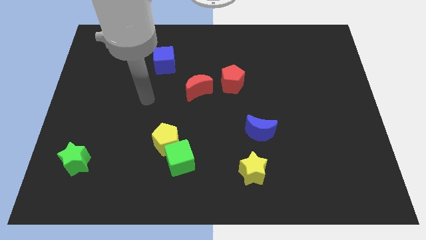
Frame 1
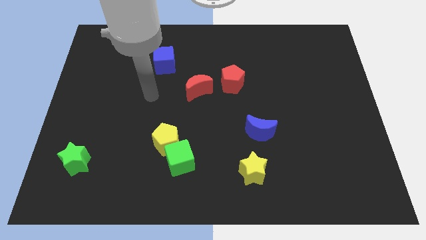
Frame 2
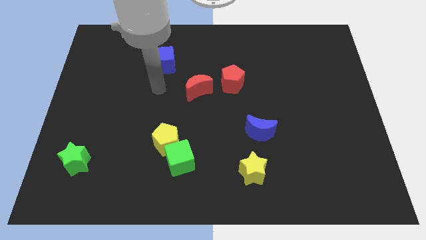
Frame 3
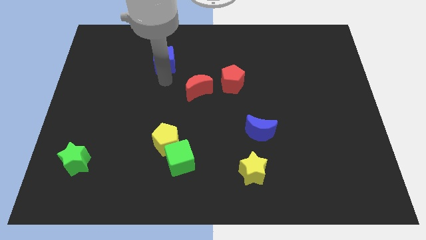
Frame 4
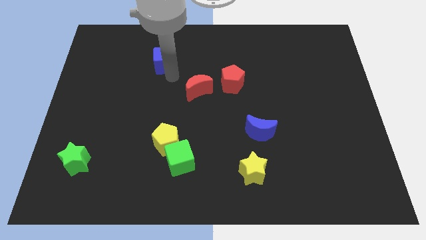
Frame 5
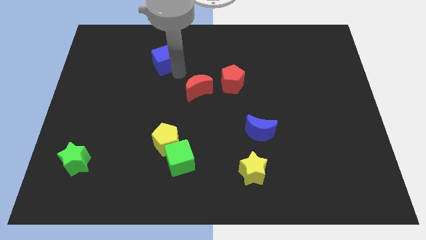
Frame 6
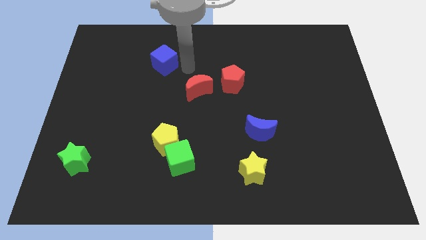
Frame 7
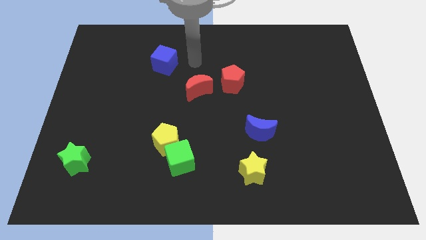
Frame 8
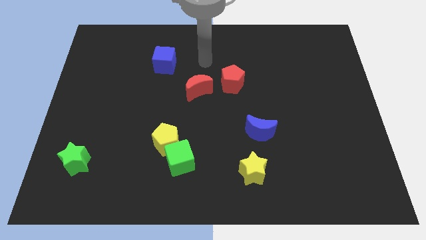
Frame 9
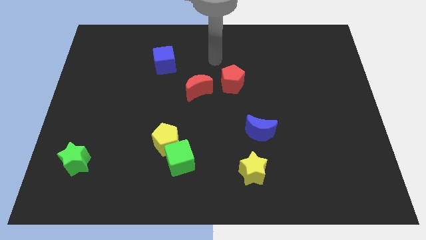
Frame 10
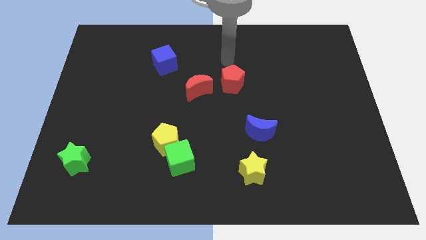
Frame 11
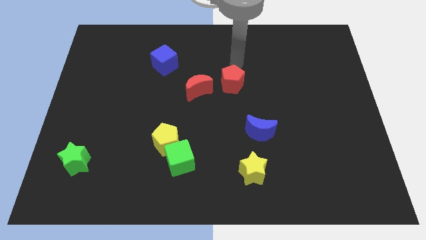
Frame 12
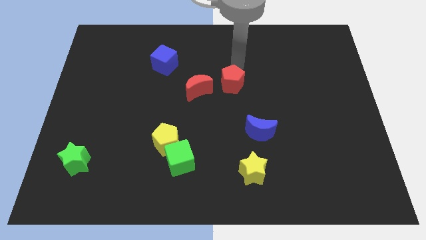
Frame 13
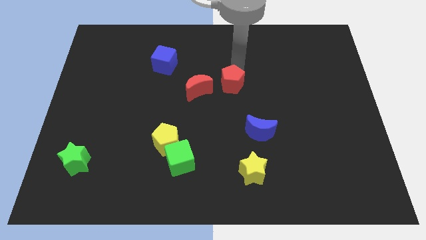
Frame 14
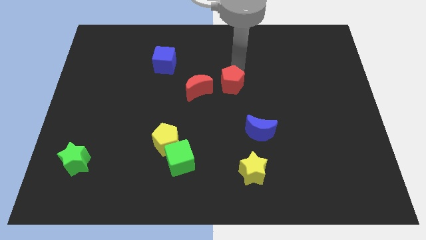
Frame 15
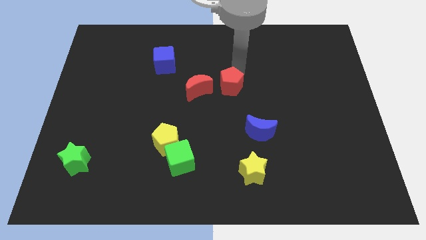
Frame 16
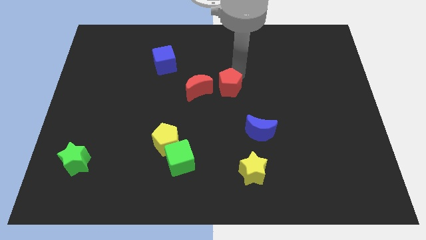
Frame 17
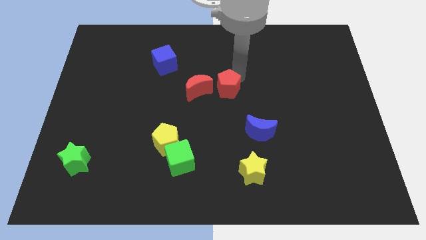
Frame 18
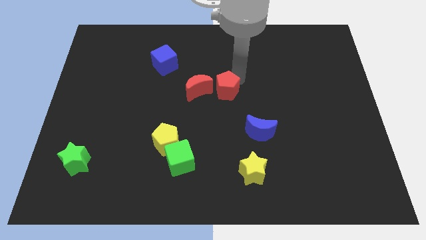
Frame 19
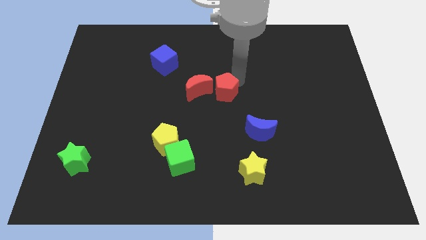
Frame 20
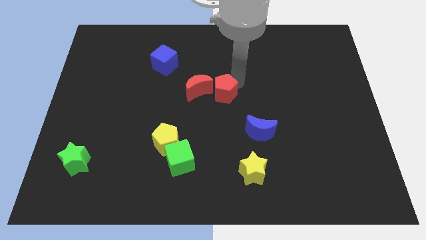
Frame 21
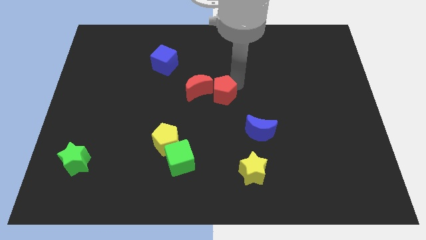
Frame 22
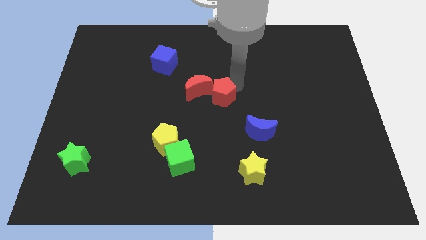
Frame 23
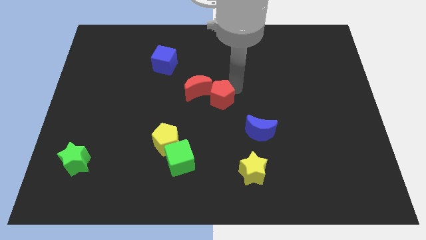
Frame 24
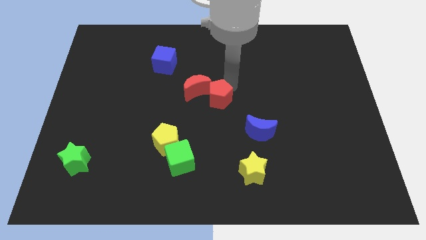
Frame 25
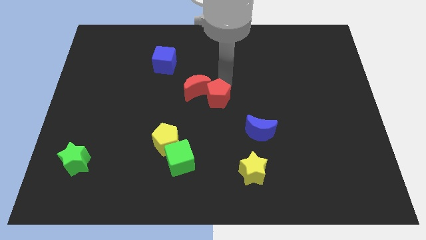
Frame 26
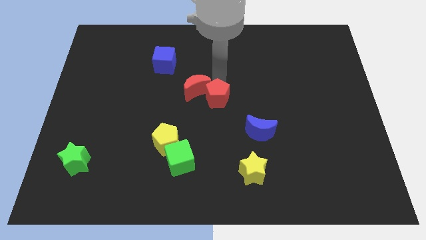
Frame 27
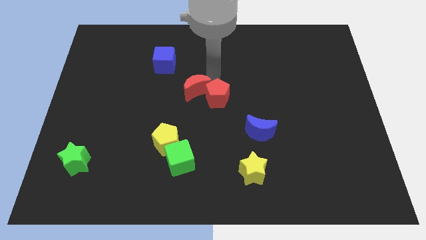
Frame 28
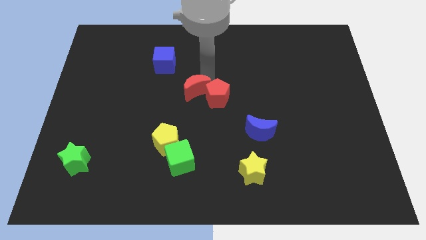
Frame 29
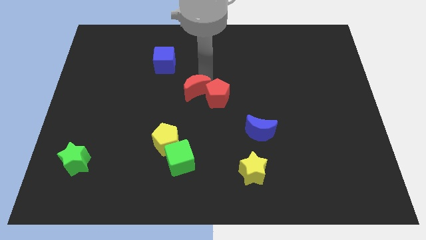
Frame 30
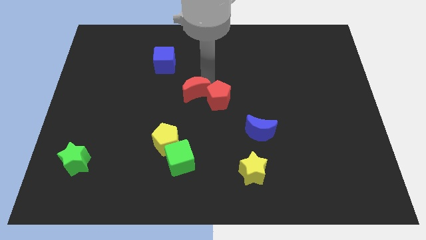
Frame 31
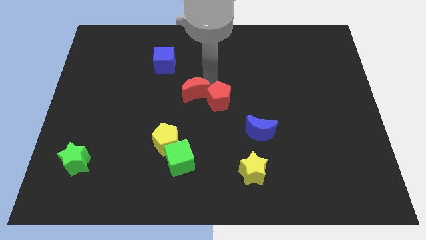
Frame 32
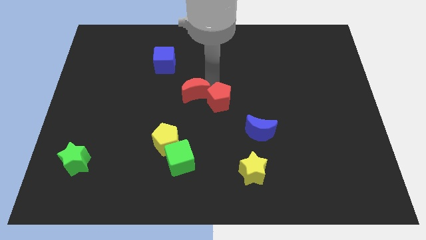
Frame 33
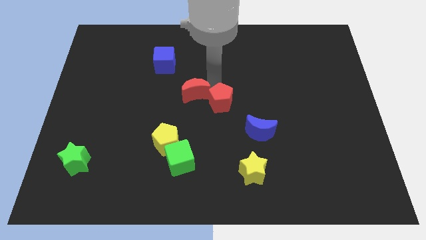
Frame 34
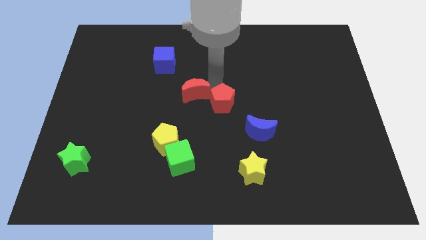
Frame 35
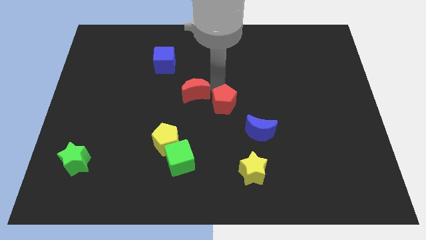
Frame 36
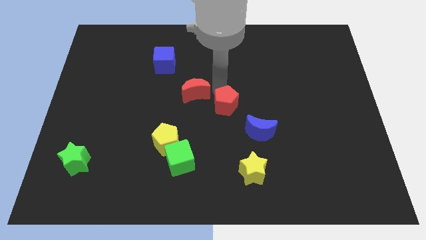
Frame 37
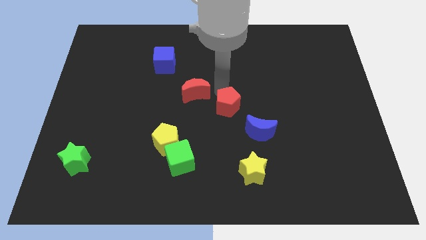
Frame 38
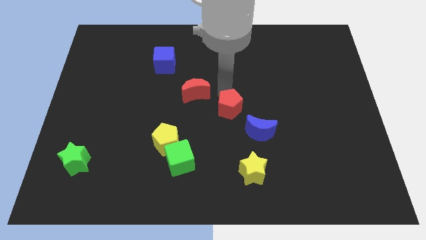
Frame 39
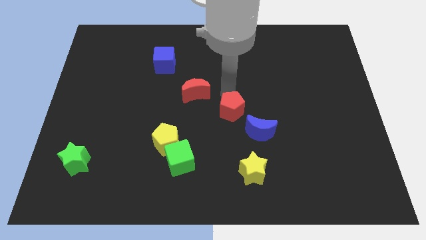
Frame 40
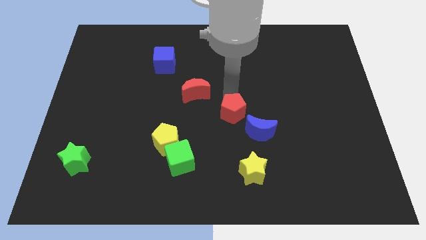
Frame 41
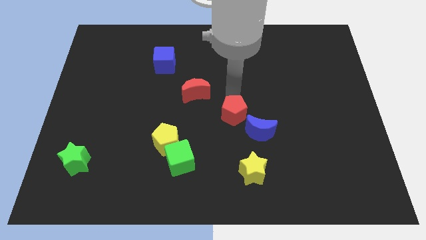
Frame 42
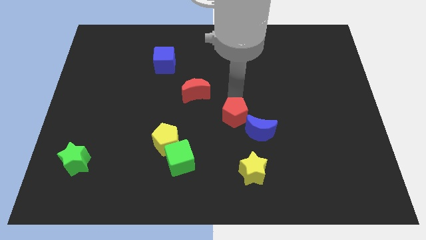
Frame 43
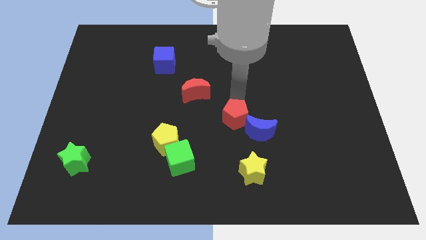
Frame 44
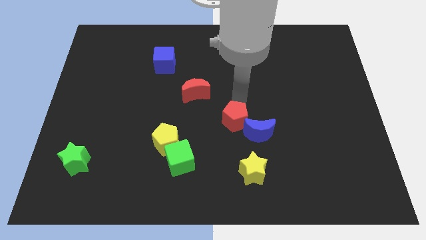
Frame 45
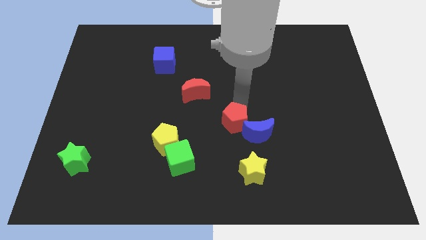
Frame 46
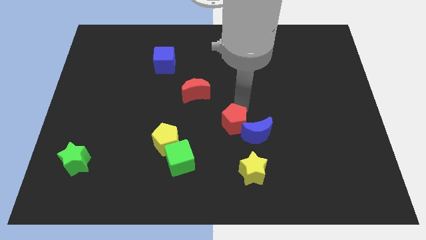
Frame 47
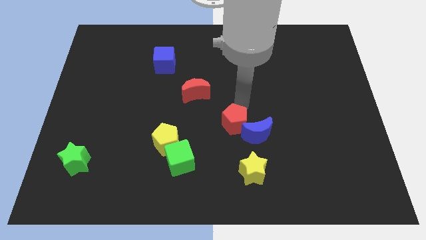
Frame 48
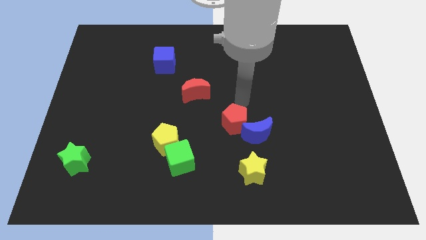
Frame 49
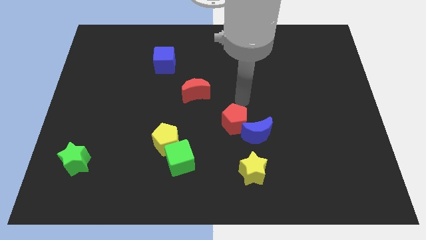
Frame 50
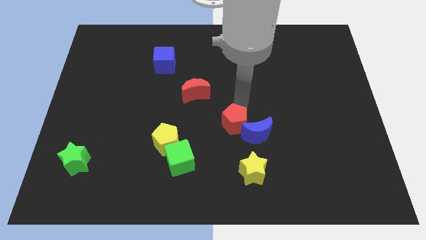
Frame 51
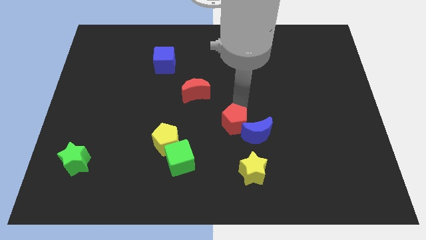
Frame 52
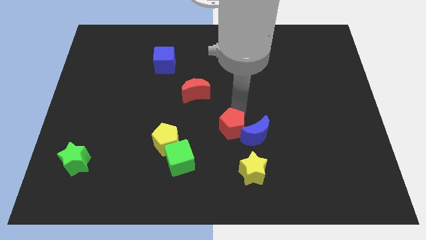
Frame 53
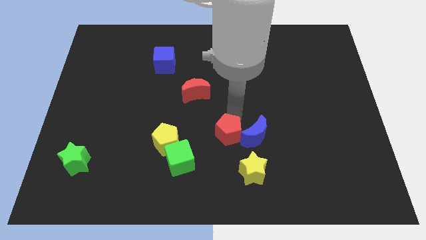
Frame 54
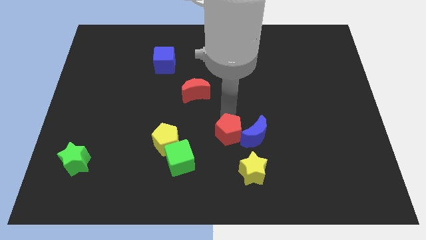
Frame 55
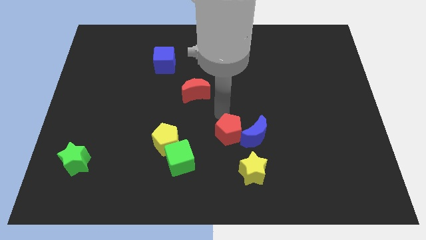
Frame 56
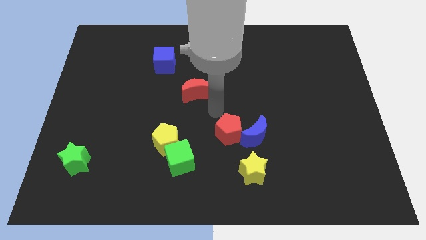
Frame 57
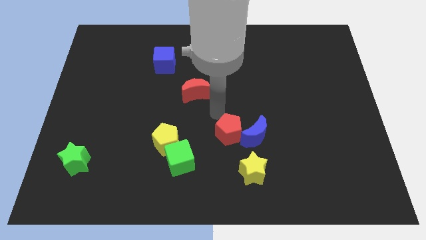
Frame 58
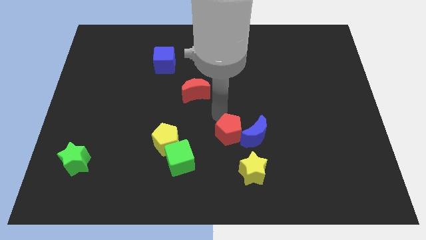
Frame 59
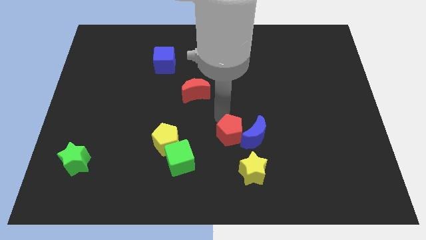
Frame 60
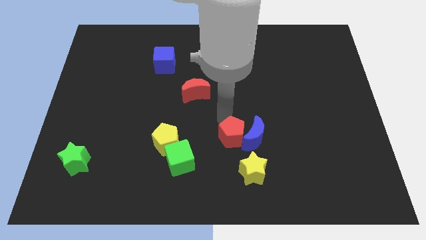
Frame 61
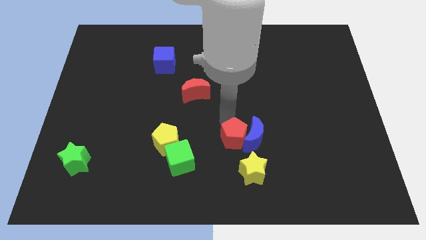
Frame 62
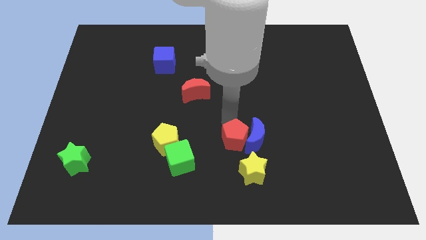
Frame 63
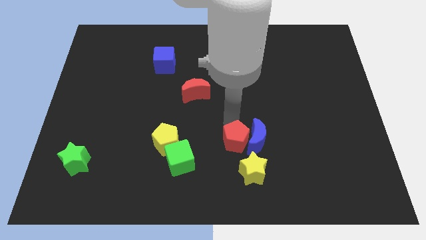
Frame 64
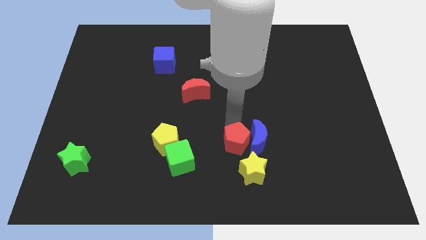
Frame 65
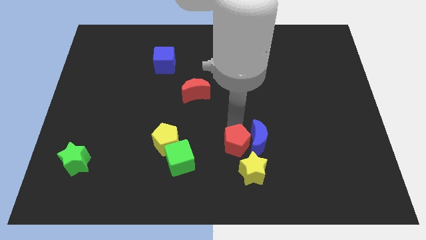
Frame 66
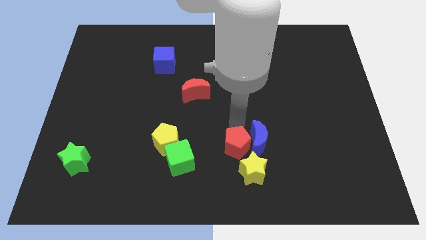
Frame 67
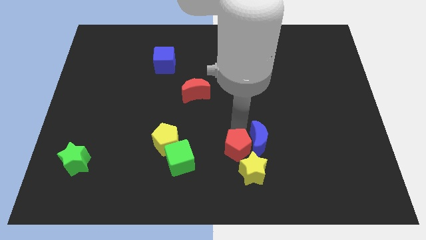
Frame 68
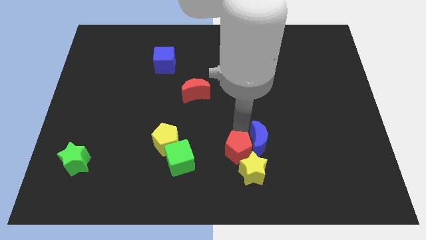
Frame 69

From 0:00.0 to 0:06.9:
push the red pentagon next to the yellow star

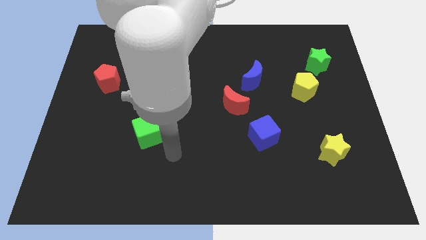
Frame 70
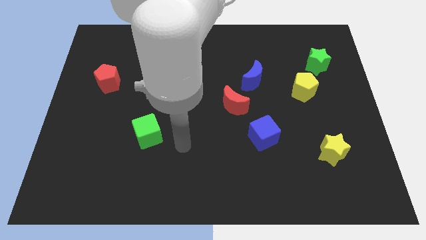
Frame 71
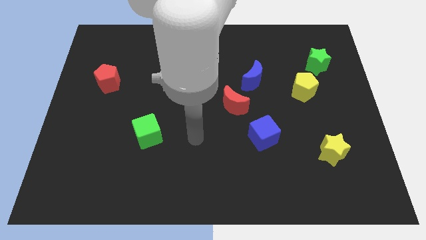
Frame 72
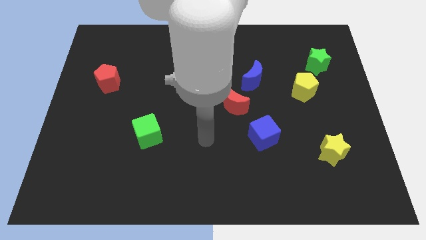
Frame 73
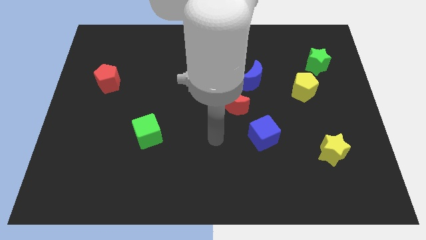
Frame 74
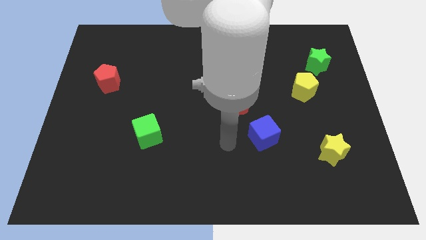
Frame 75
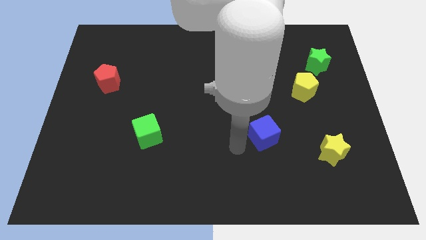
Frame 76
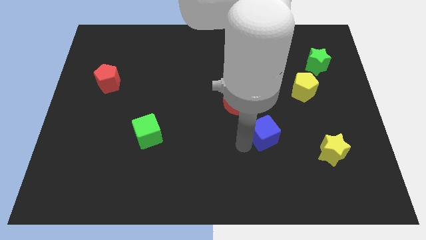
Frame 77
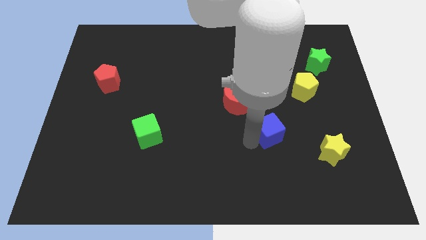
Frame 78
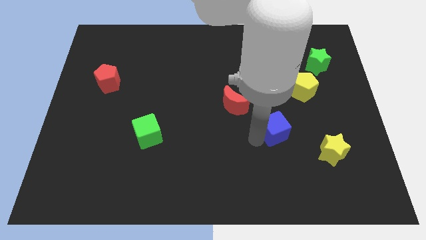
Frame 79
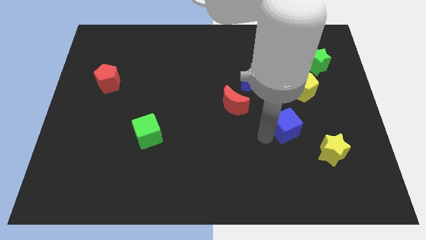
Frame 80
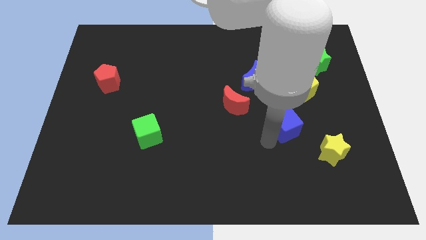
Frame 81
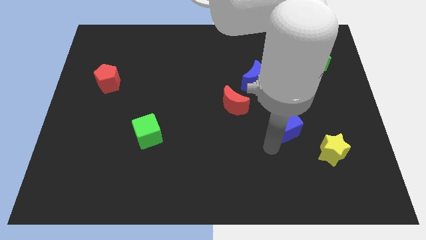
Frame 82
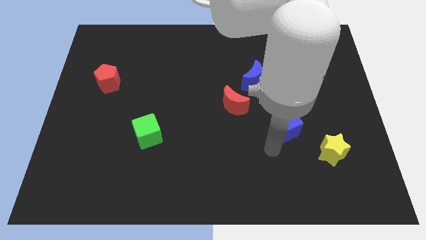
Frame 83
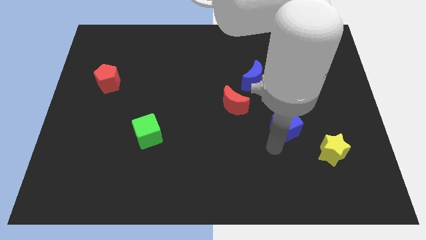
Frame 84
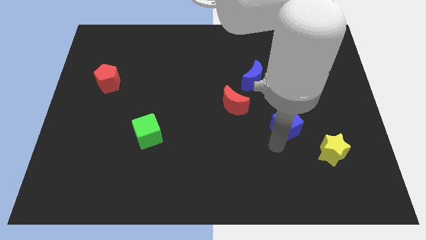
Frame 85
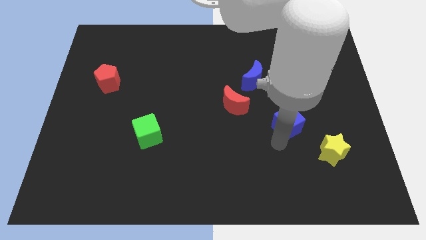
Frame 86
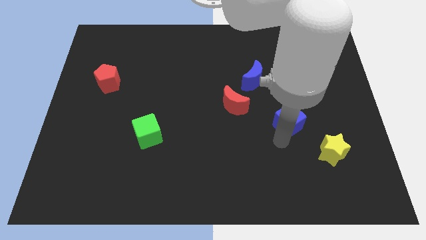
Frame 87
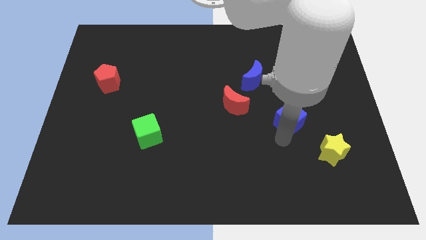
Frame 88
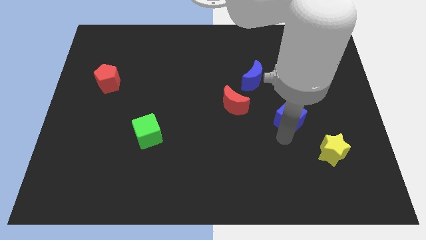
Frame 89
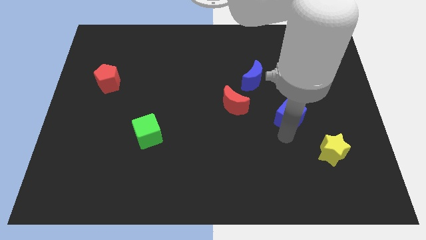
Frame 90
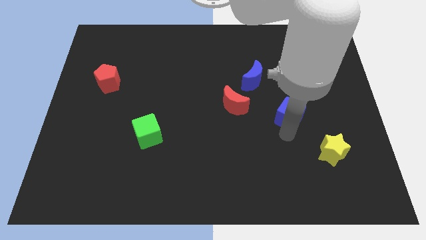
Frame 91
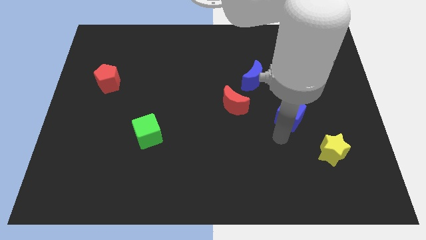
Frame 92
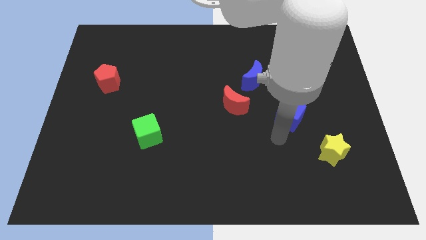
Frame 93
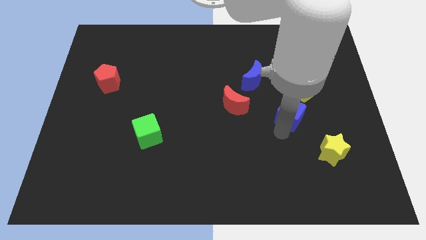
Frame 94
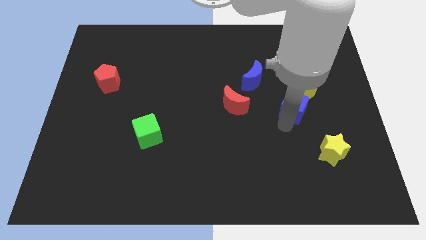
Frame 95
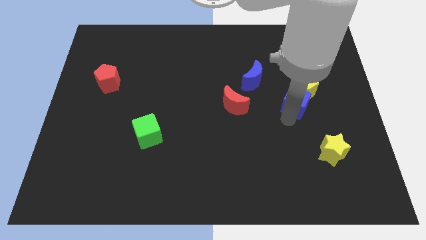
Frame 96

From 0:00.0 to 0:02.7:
move the blue cube next to the yellow pentagon
